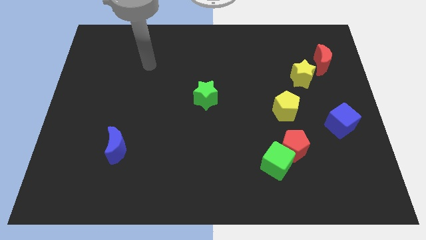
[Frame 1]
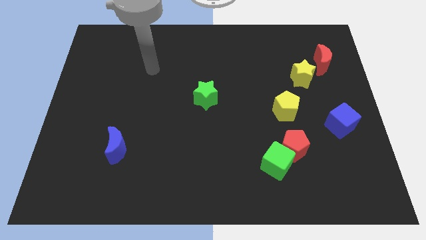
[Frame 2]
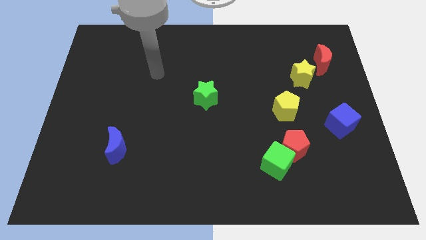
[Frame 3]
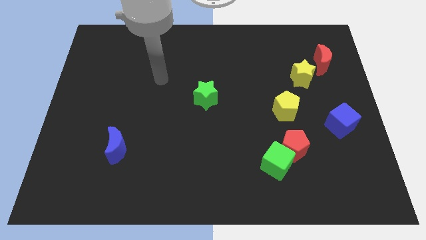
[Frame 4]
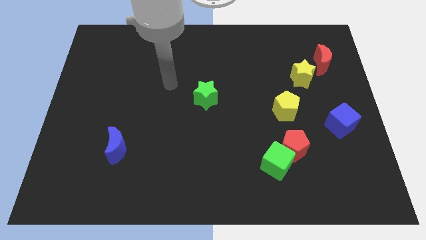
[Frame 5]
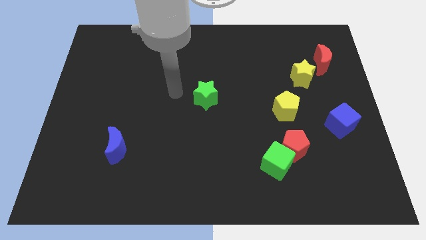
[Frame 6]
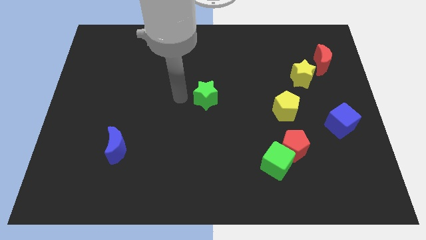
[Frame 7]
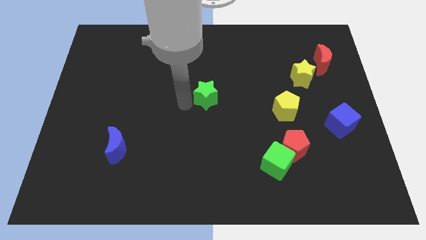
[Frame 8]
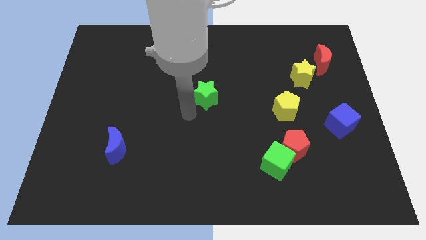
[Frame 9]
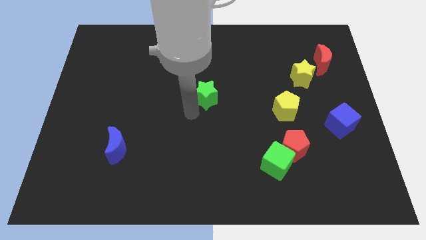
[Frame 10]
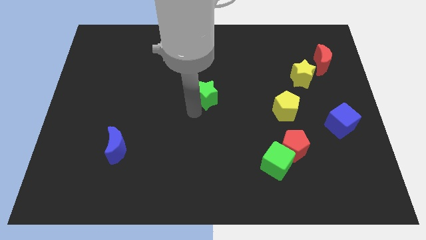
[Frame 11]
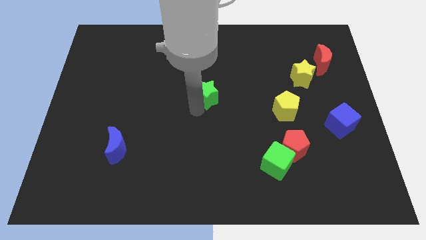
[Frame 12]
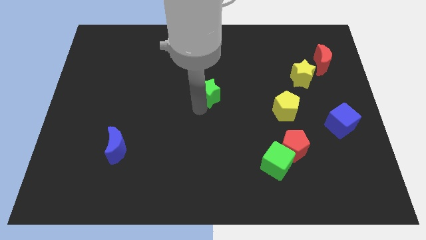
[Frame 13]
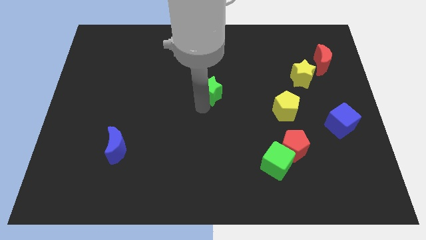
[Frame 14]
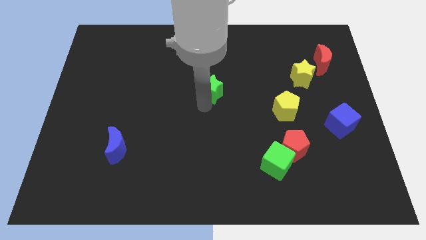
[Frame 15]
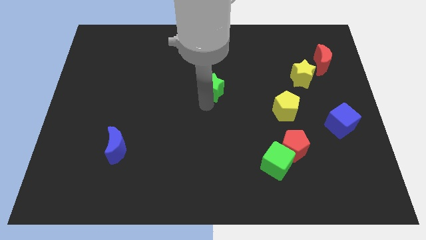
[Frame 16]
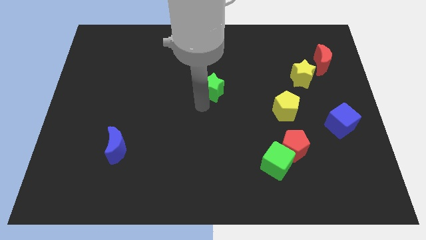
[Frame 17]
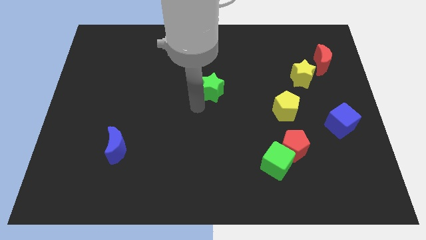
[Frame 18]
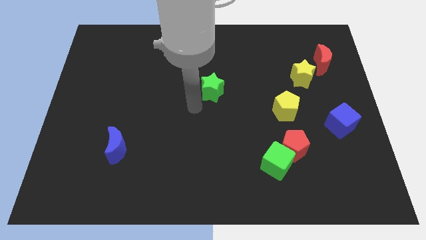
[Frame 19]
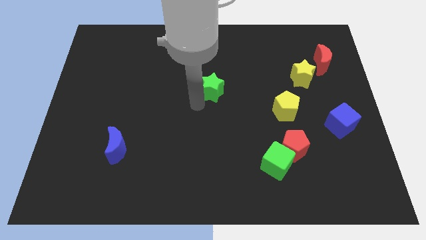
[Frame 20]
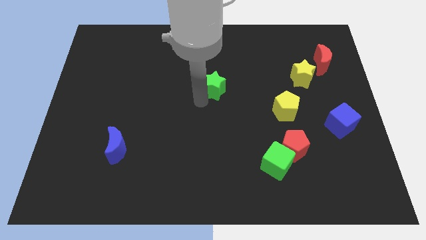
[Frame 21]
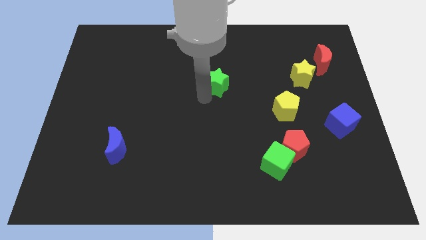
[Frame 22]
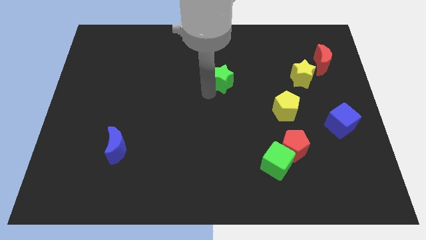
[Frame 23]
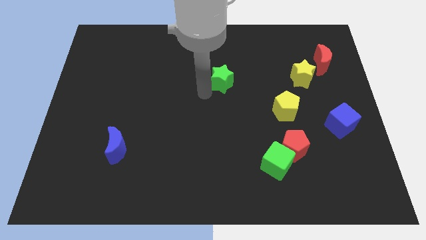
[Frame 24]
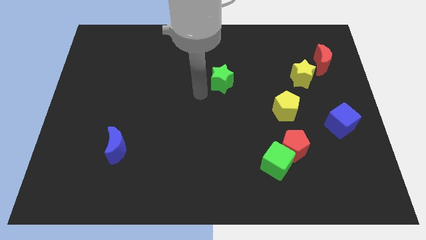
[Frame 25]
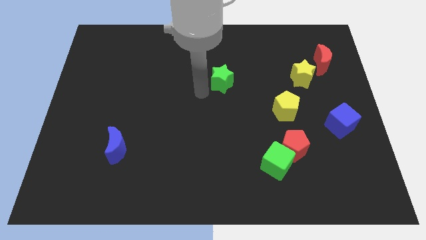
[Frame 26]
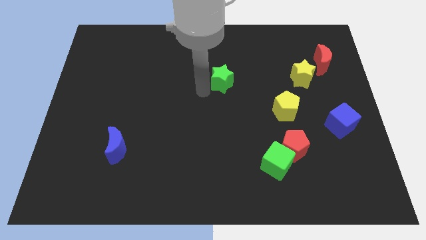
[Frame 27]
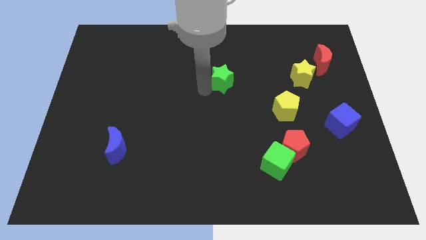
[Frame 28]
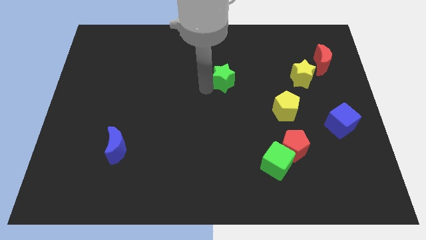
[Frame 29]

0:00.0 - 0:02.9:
push the green star a bit upwards and then to the right

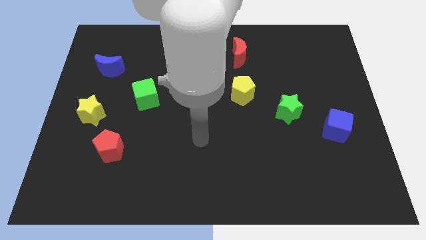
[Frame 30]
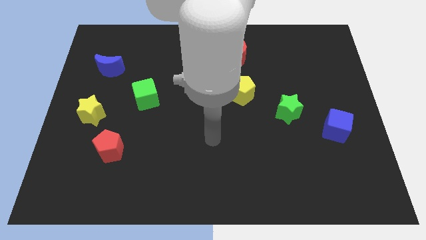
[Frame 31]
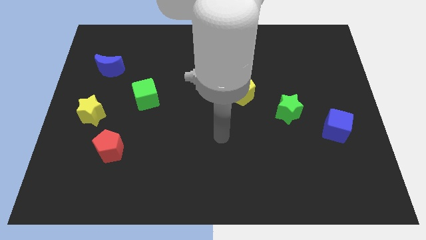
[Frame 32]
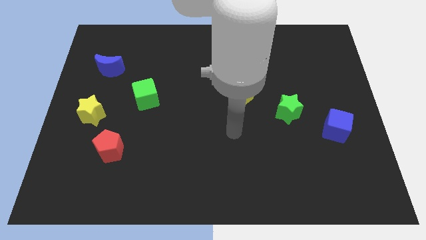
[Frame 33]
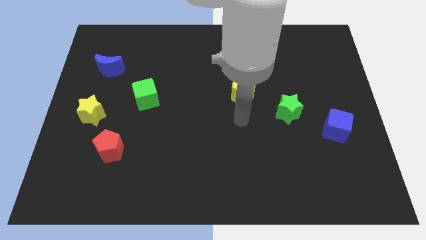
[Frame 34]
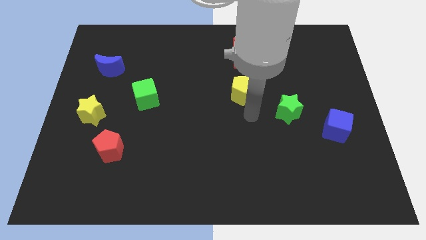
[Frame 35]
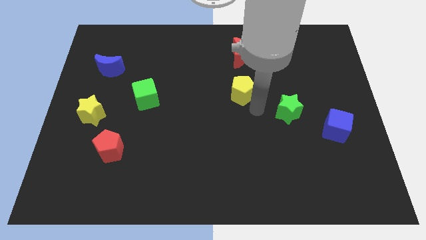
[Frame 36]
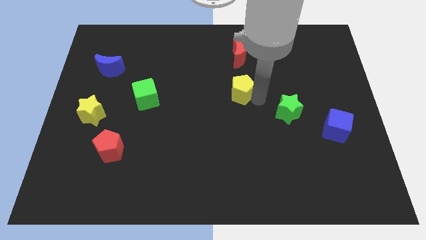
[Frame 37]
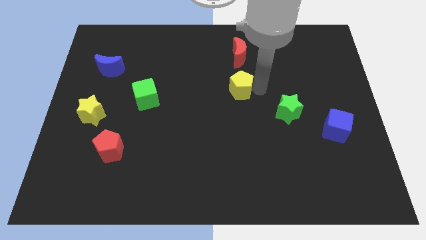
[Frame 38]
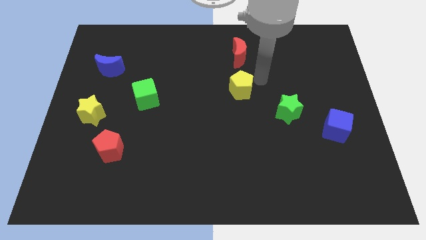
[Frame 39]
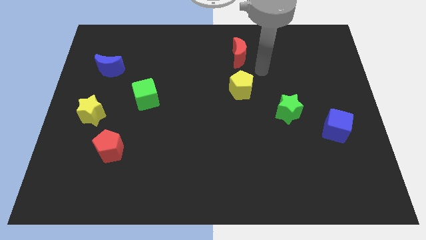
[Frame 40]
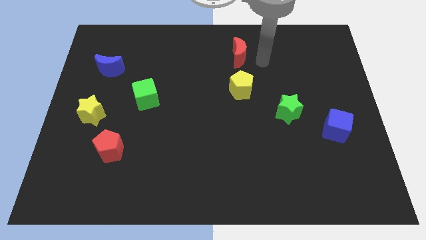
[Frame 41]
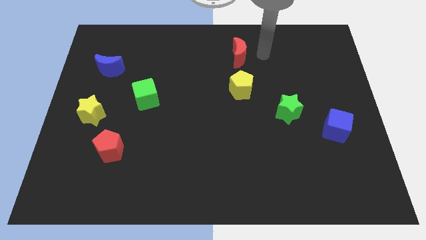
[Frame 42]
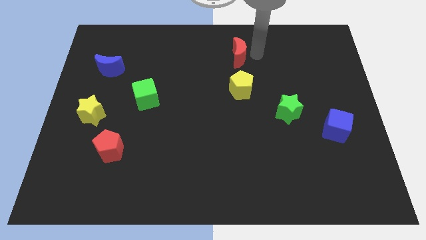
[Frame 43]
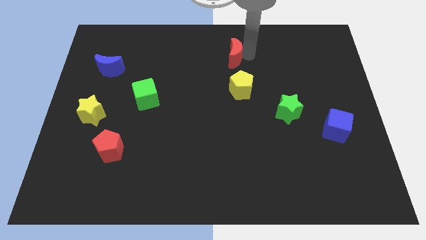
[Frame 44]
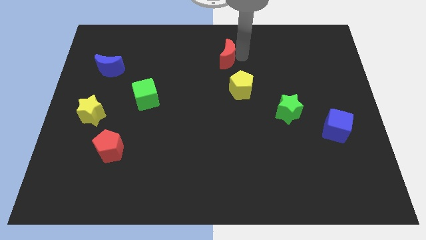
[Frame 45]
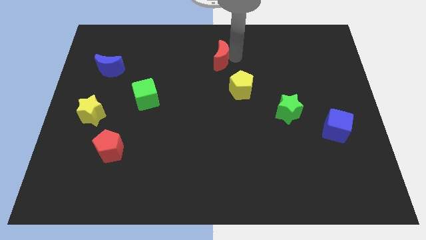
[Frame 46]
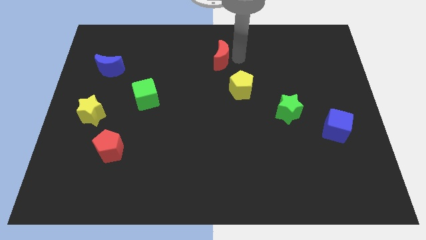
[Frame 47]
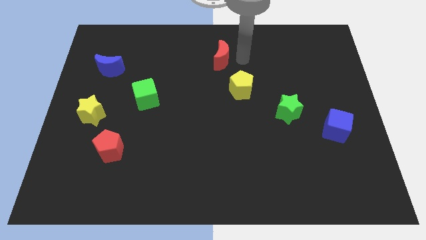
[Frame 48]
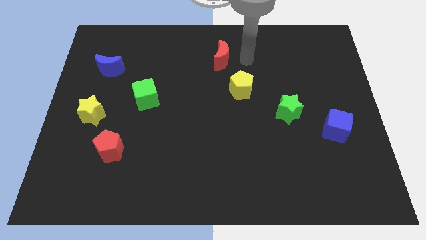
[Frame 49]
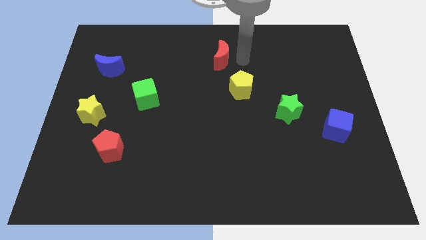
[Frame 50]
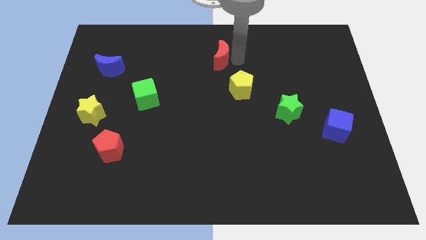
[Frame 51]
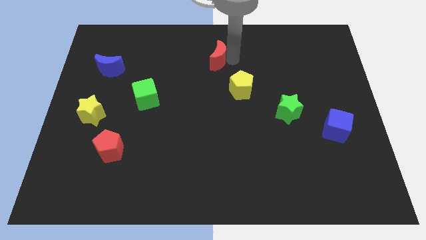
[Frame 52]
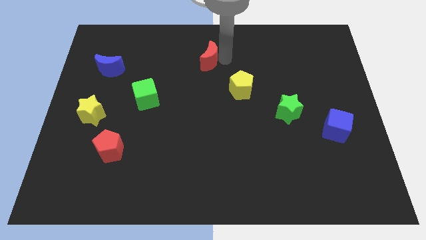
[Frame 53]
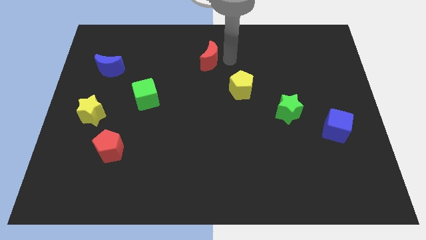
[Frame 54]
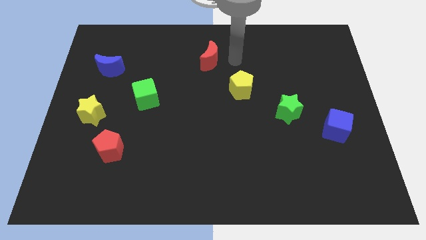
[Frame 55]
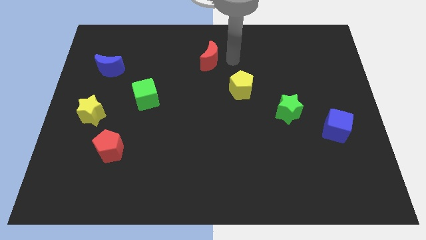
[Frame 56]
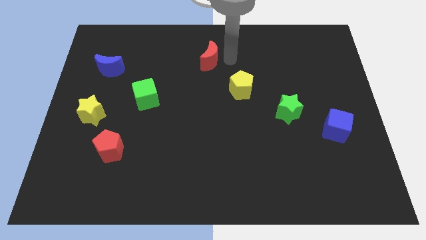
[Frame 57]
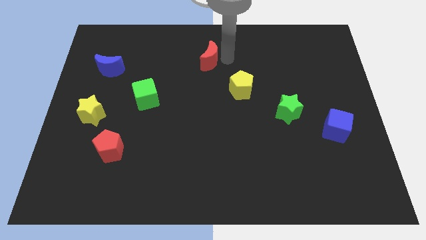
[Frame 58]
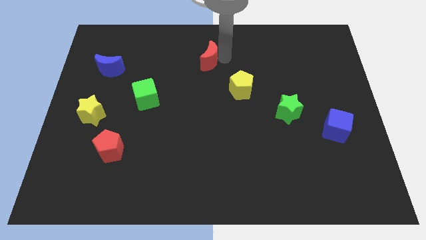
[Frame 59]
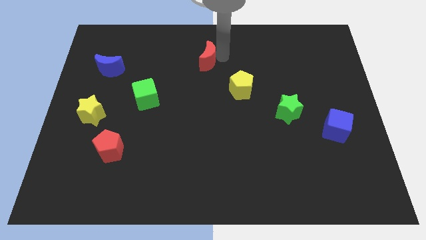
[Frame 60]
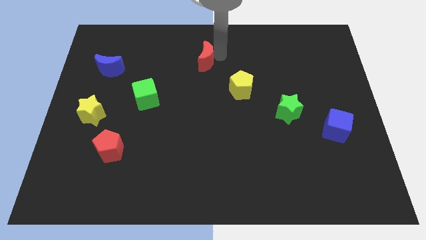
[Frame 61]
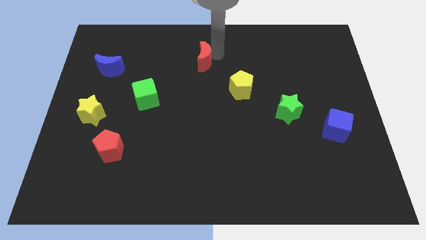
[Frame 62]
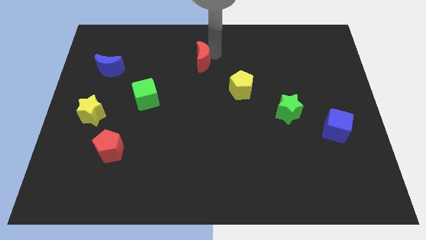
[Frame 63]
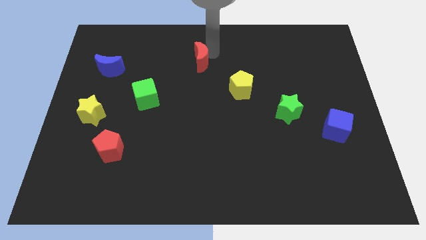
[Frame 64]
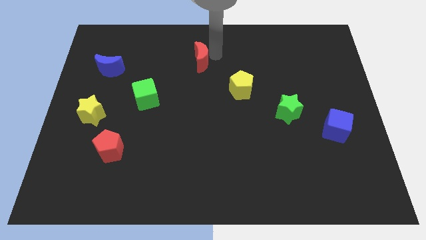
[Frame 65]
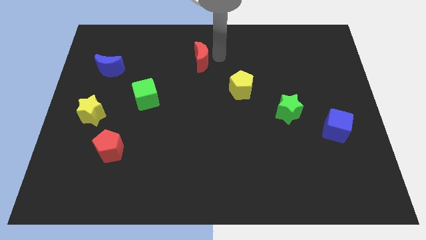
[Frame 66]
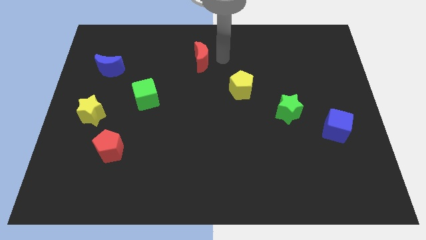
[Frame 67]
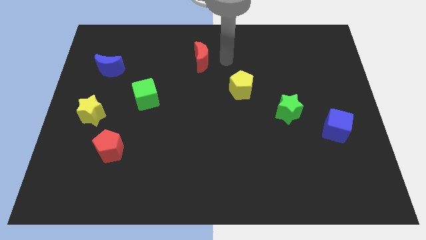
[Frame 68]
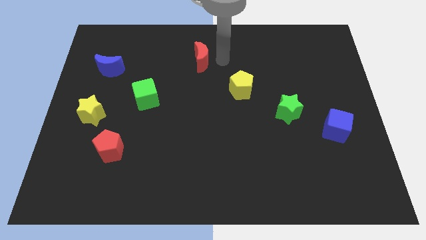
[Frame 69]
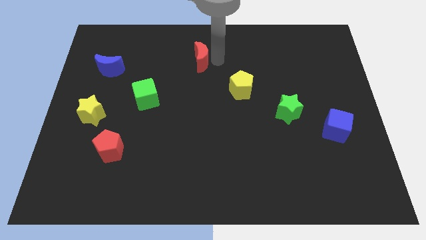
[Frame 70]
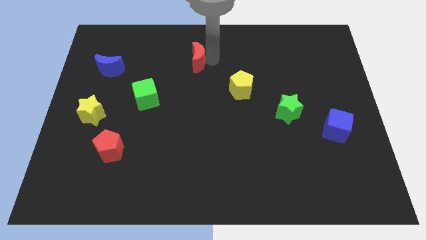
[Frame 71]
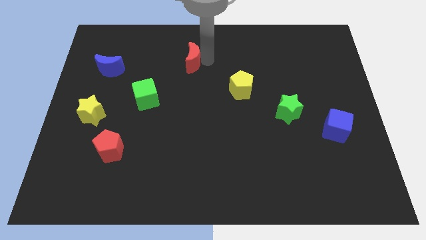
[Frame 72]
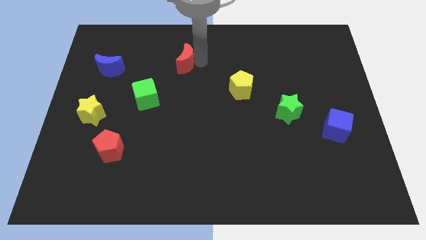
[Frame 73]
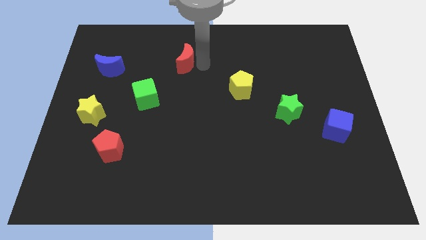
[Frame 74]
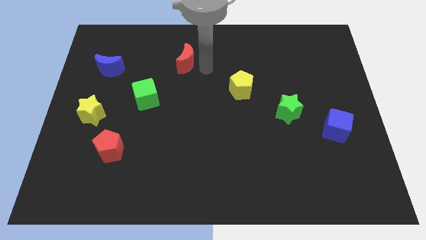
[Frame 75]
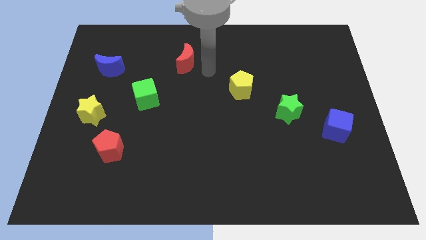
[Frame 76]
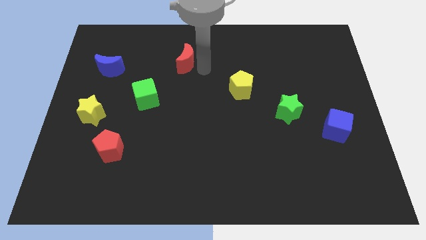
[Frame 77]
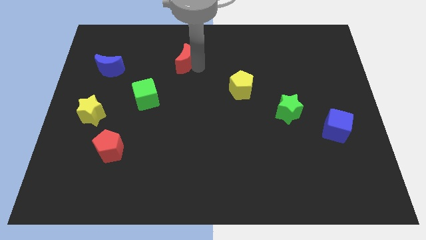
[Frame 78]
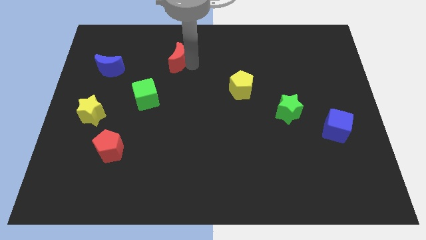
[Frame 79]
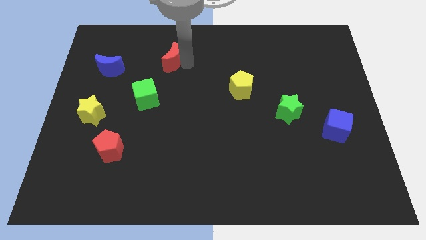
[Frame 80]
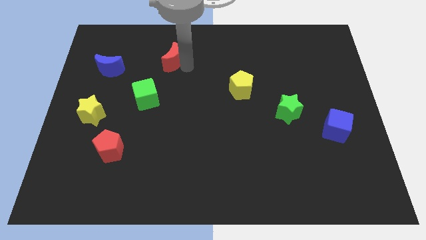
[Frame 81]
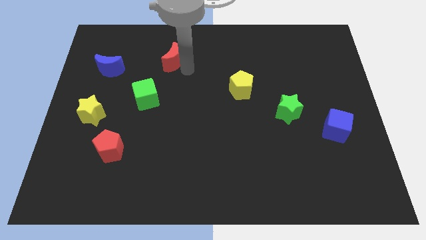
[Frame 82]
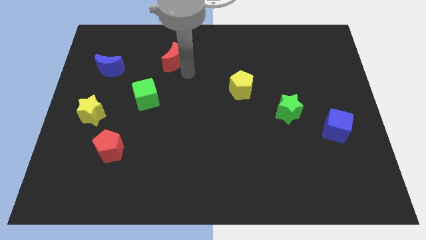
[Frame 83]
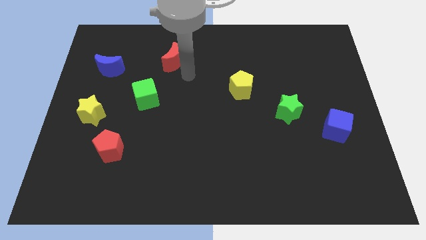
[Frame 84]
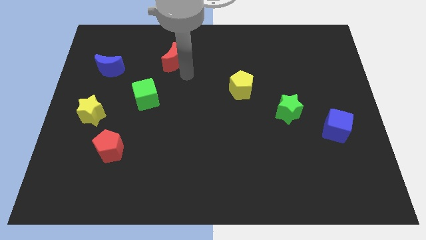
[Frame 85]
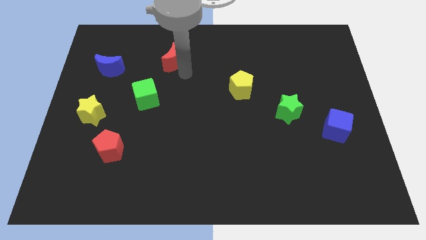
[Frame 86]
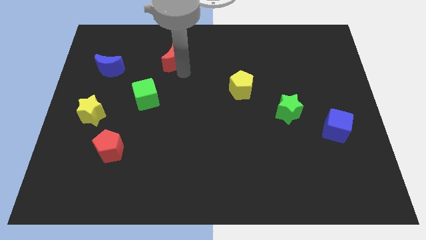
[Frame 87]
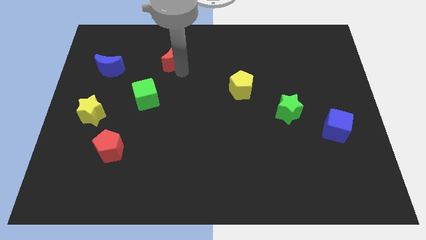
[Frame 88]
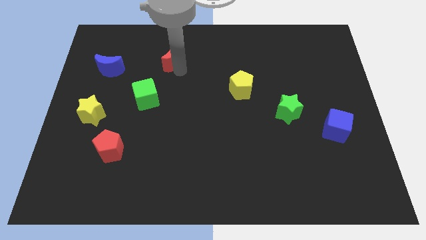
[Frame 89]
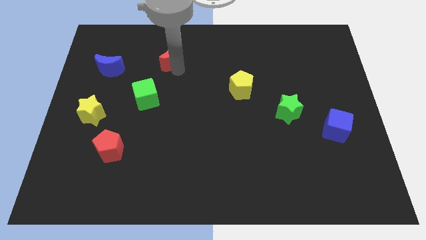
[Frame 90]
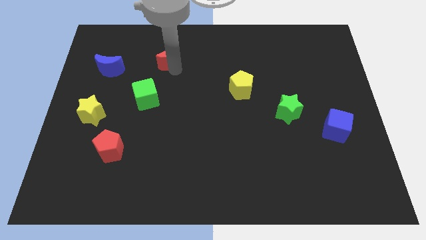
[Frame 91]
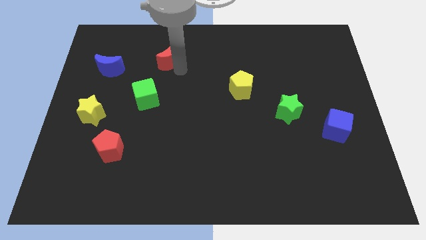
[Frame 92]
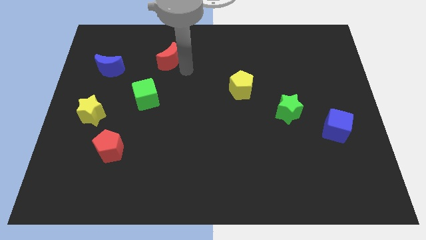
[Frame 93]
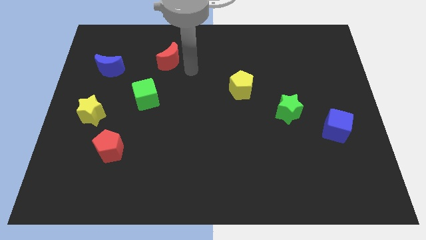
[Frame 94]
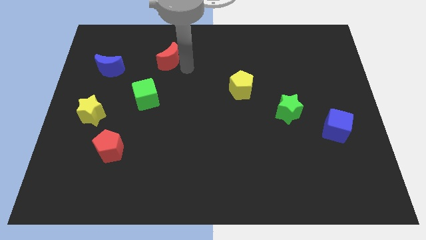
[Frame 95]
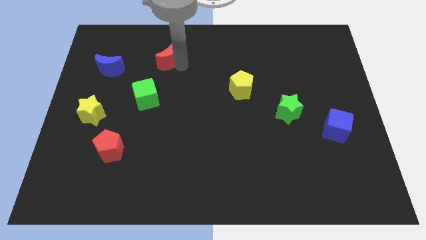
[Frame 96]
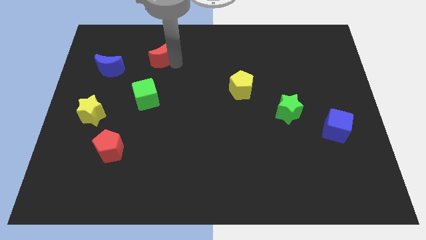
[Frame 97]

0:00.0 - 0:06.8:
move the red moon left
